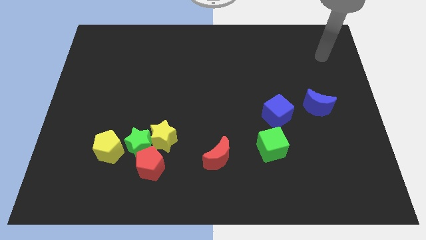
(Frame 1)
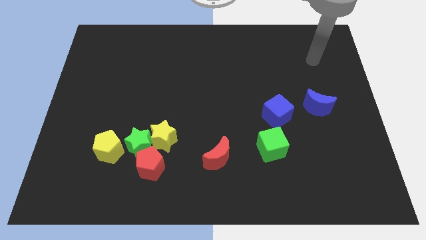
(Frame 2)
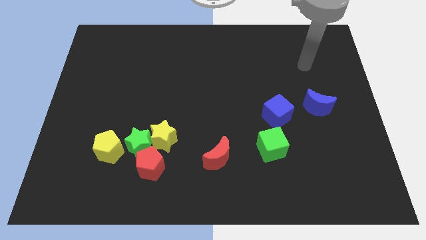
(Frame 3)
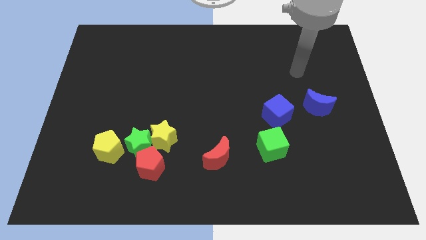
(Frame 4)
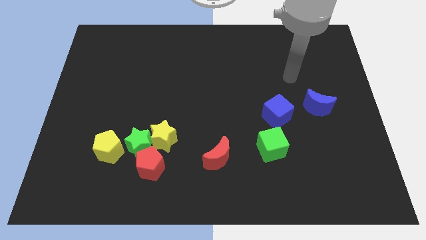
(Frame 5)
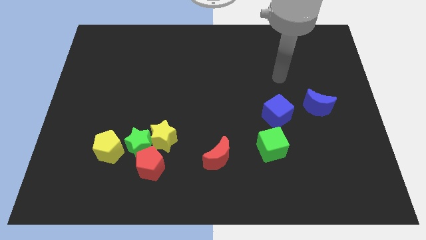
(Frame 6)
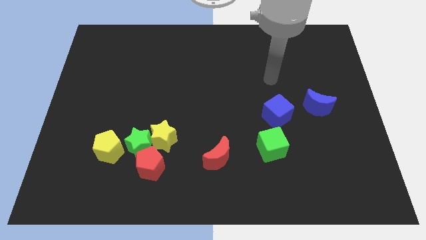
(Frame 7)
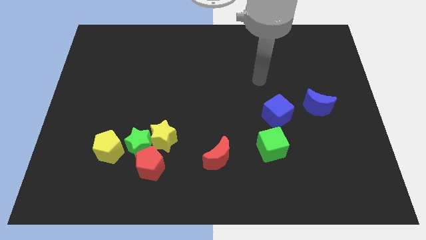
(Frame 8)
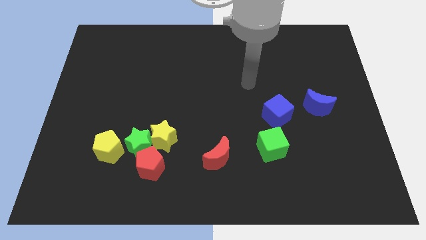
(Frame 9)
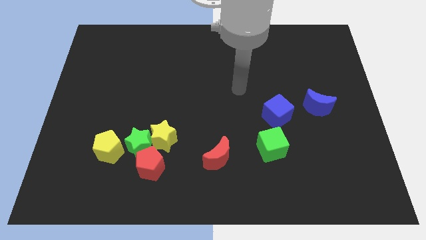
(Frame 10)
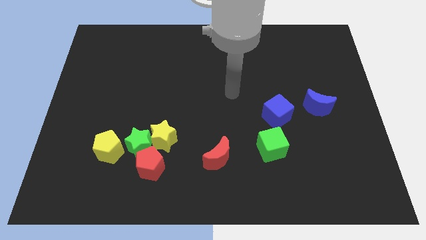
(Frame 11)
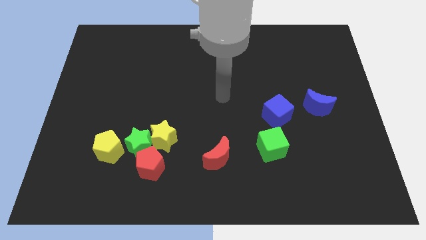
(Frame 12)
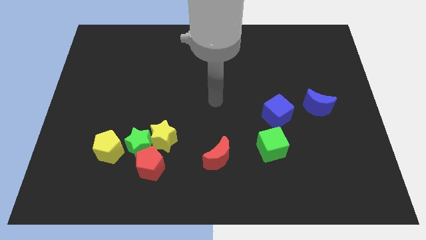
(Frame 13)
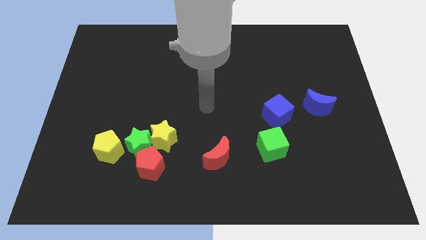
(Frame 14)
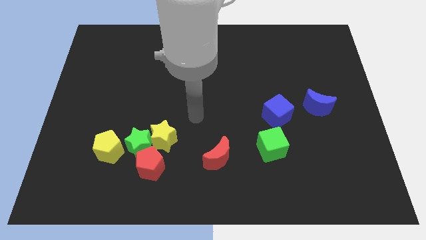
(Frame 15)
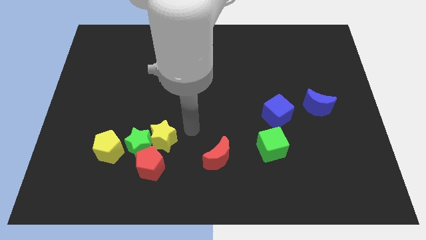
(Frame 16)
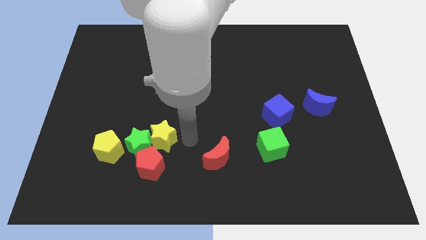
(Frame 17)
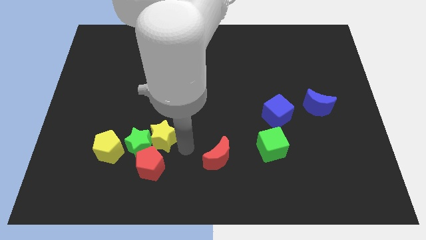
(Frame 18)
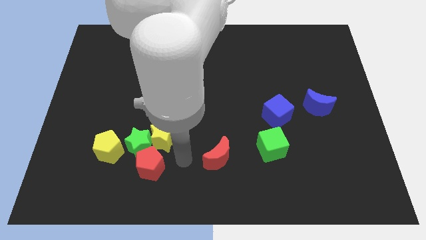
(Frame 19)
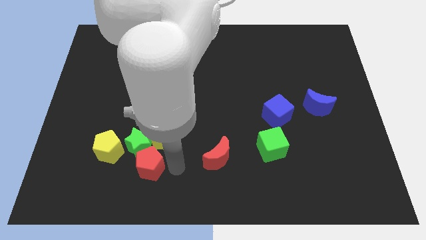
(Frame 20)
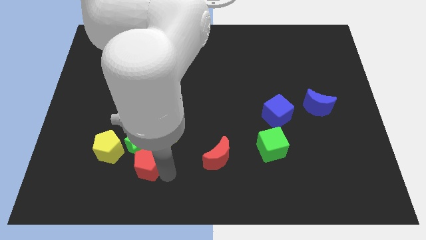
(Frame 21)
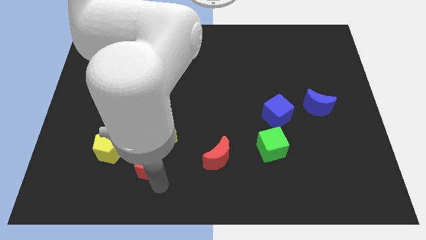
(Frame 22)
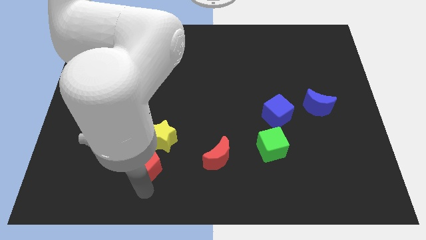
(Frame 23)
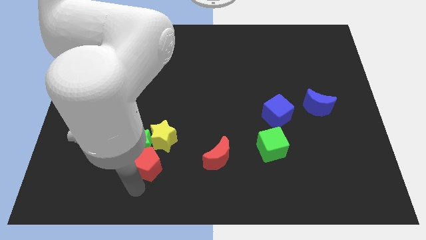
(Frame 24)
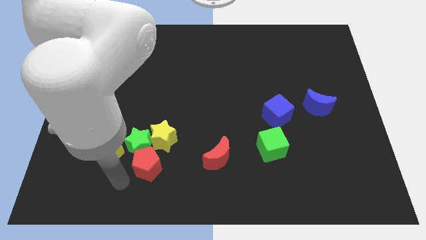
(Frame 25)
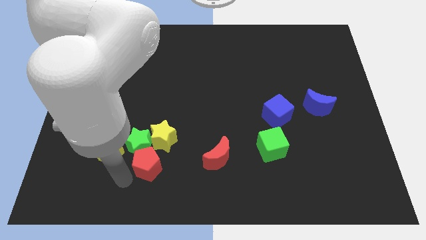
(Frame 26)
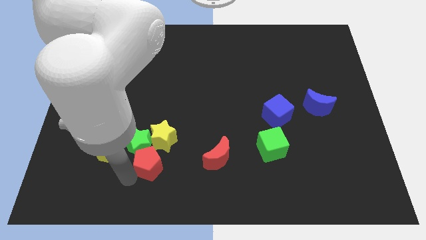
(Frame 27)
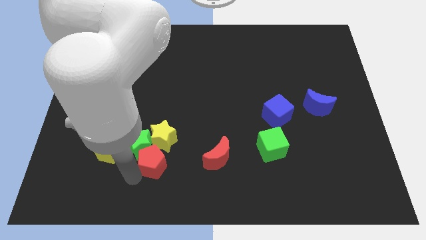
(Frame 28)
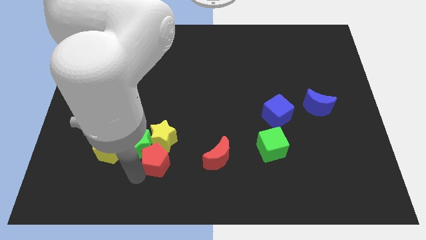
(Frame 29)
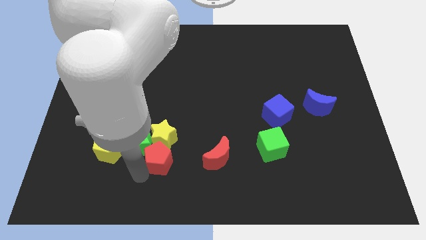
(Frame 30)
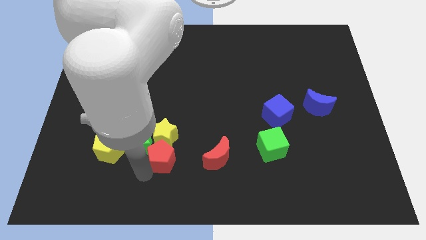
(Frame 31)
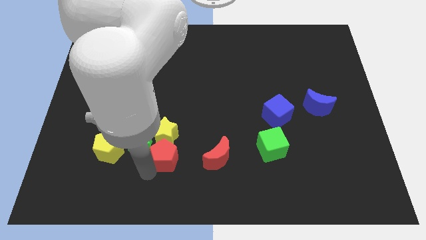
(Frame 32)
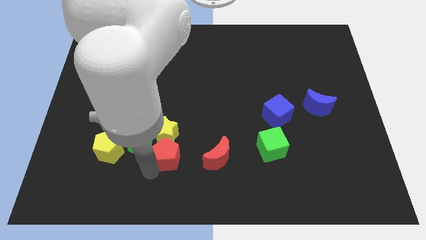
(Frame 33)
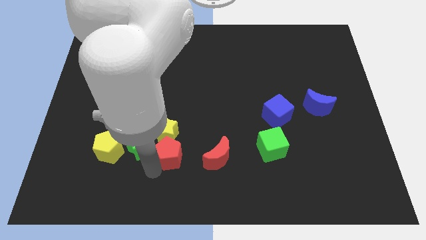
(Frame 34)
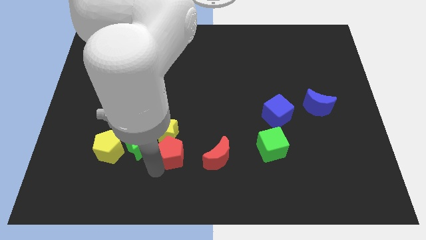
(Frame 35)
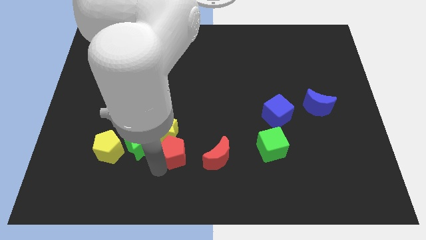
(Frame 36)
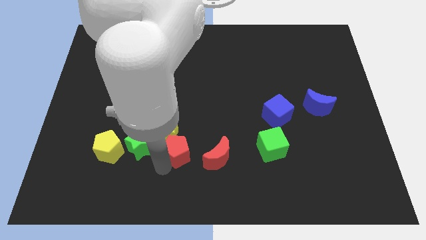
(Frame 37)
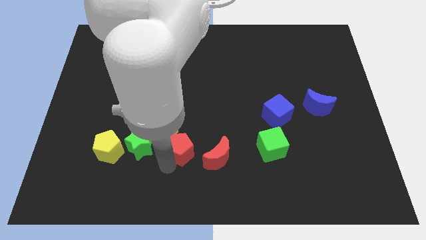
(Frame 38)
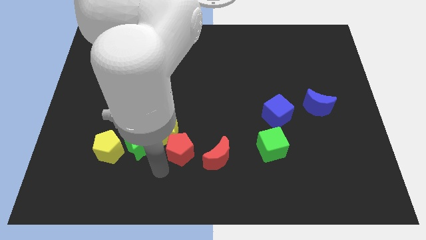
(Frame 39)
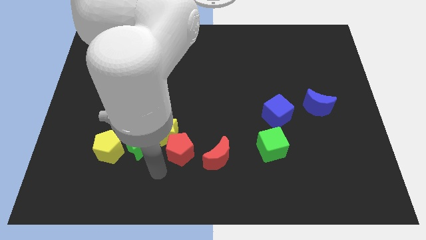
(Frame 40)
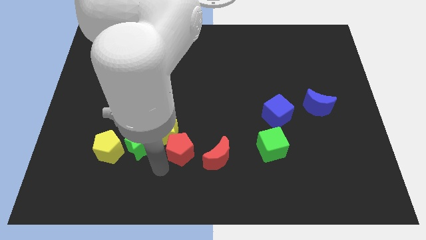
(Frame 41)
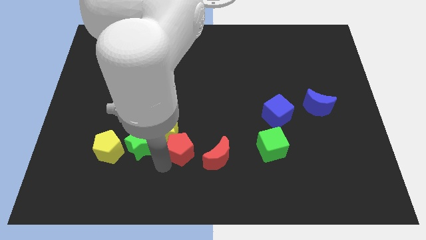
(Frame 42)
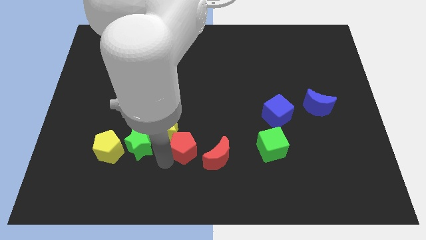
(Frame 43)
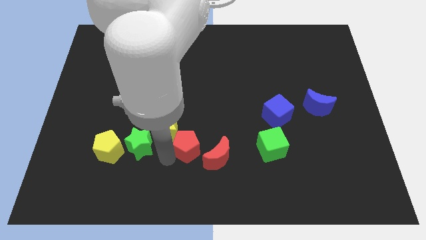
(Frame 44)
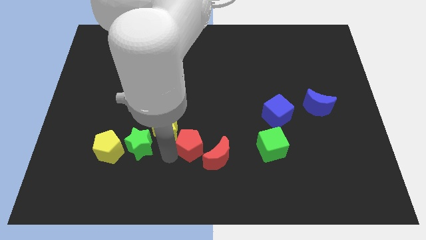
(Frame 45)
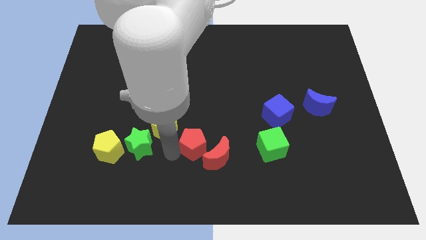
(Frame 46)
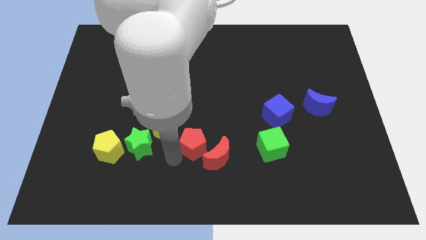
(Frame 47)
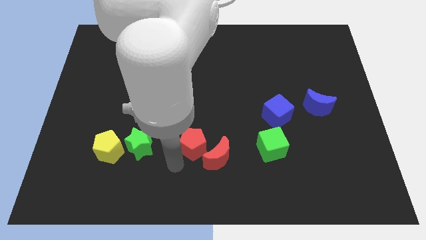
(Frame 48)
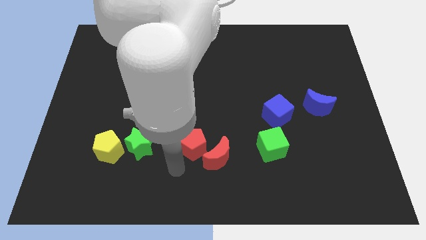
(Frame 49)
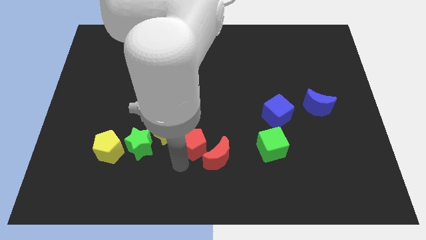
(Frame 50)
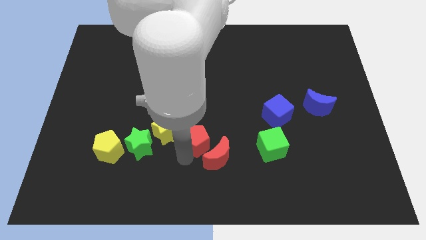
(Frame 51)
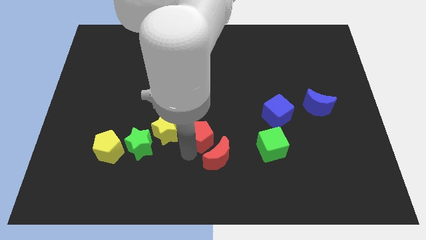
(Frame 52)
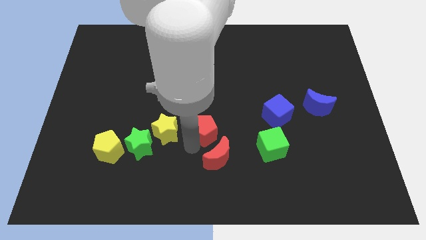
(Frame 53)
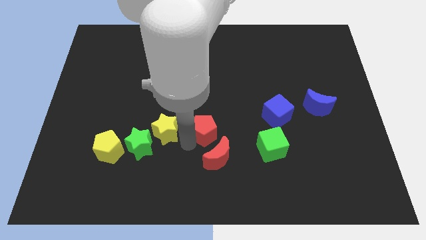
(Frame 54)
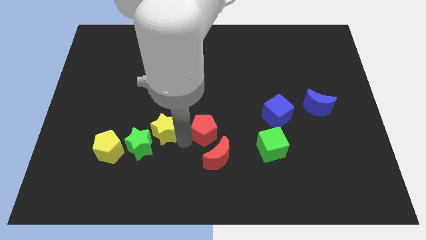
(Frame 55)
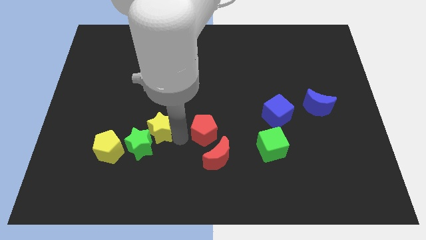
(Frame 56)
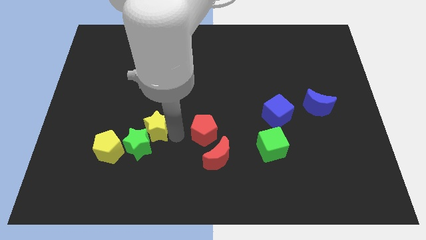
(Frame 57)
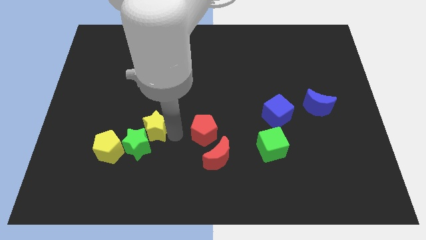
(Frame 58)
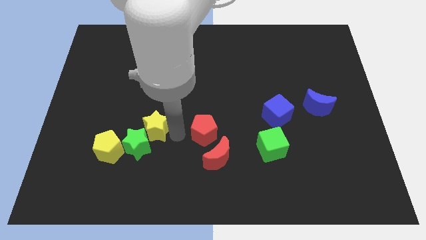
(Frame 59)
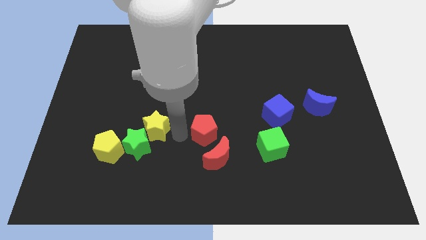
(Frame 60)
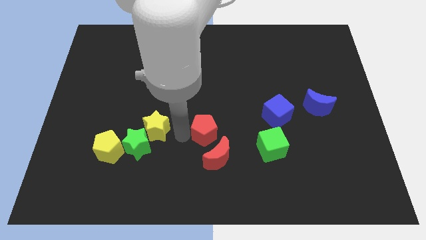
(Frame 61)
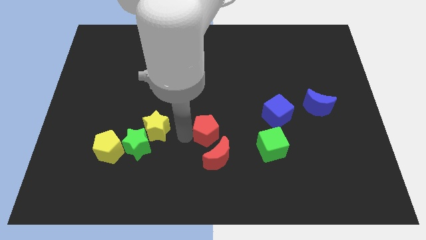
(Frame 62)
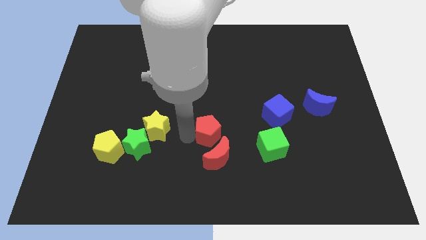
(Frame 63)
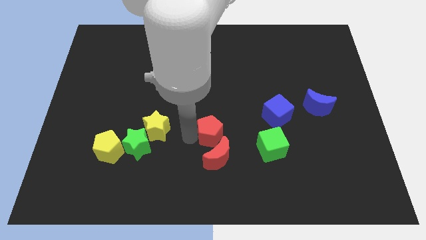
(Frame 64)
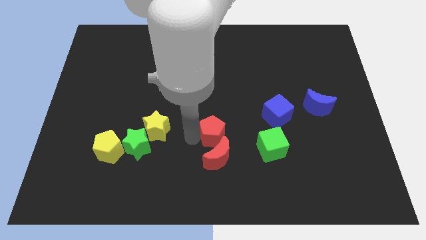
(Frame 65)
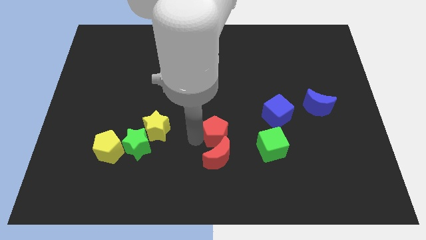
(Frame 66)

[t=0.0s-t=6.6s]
slide the red pentagon to the top right of the red moon

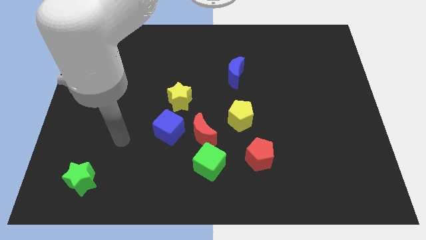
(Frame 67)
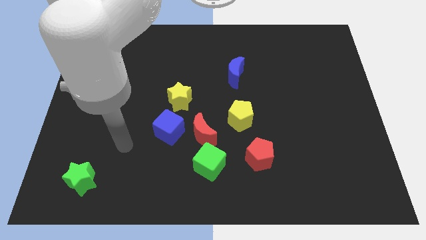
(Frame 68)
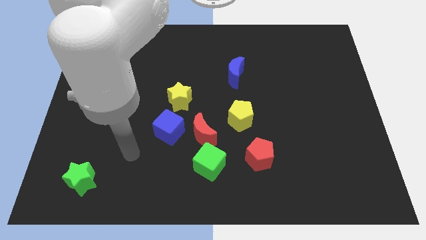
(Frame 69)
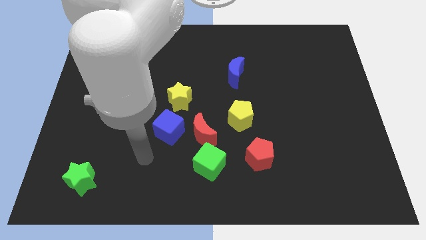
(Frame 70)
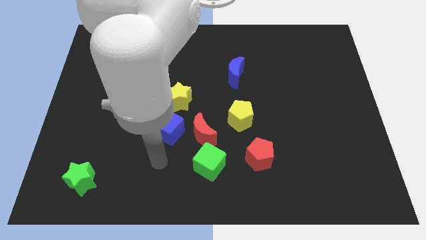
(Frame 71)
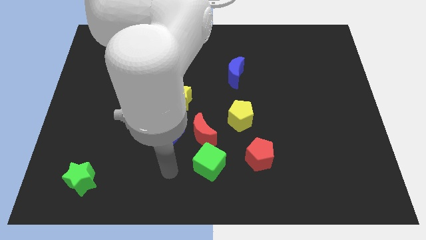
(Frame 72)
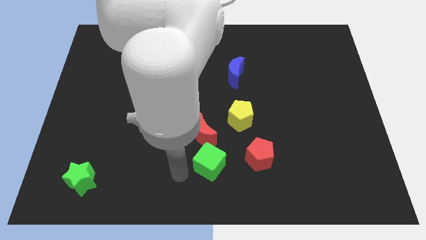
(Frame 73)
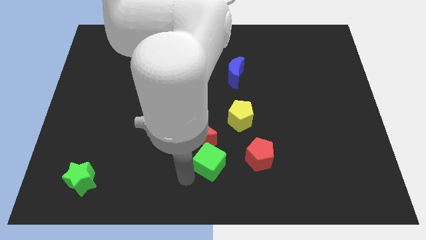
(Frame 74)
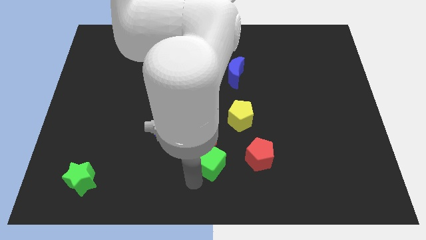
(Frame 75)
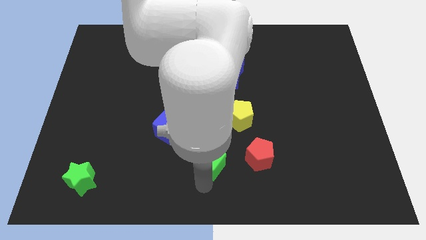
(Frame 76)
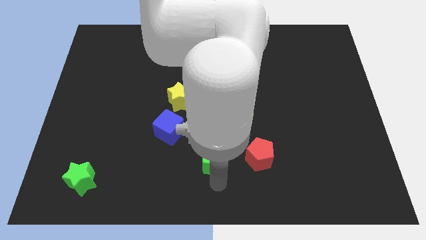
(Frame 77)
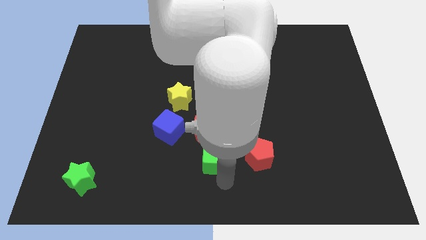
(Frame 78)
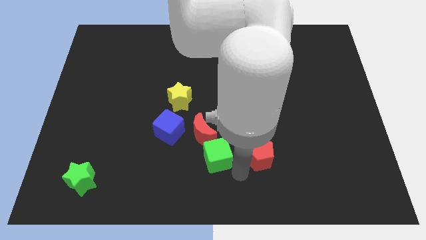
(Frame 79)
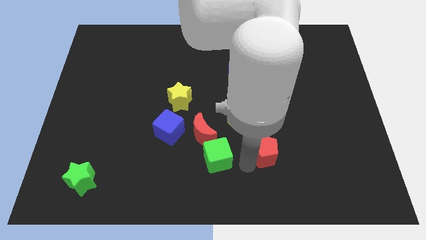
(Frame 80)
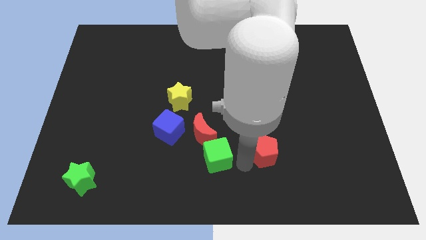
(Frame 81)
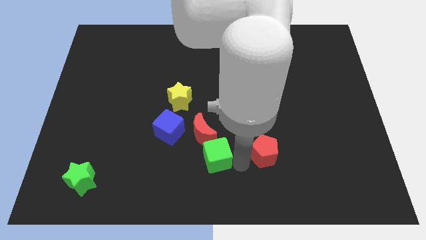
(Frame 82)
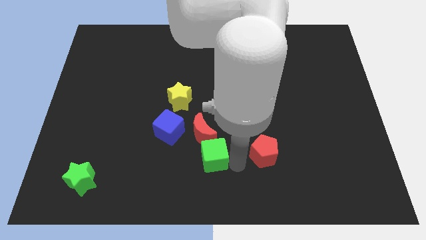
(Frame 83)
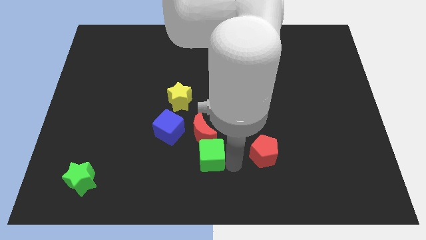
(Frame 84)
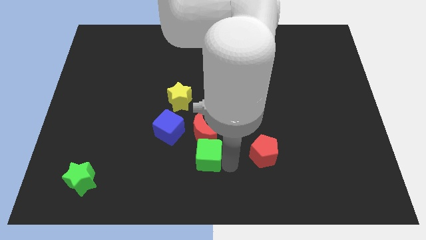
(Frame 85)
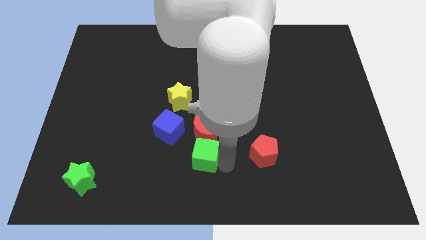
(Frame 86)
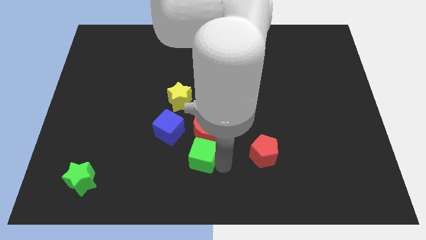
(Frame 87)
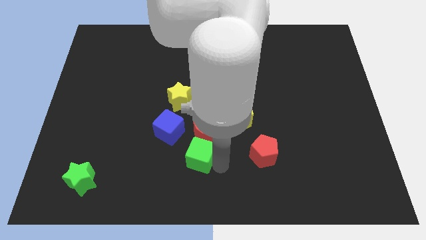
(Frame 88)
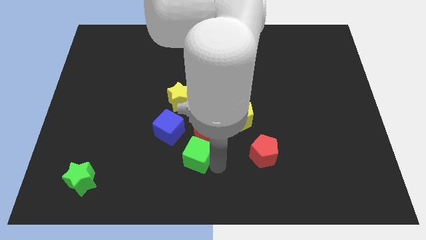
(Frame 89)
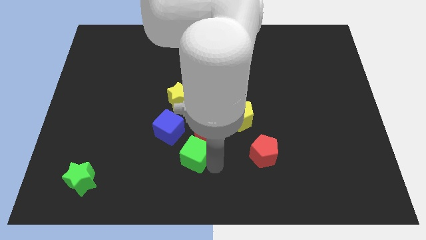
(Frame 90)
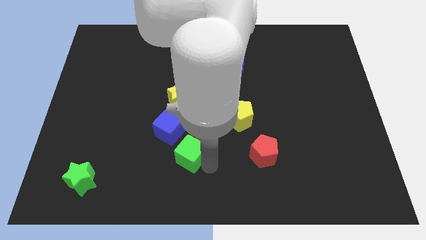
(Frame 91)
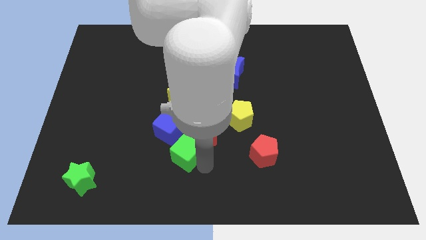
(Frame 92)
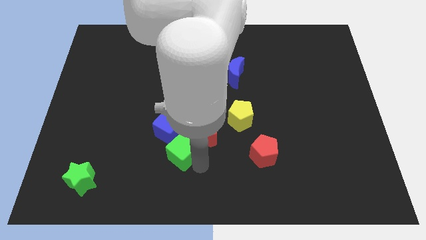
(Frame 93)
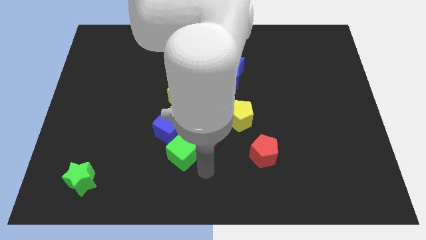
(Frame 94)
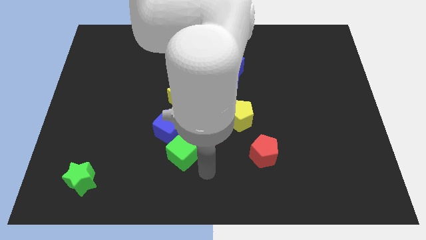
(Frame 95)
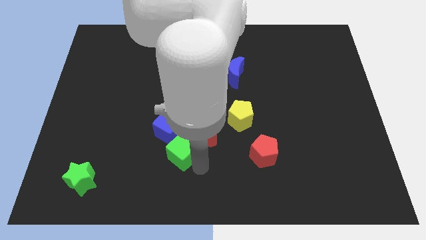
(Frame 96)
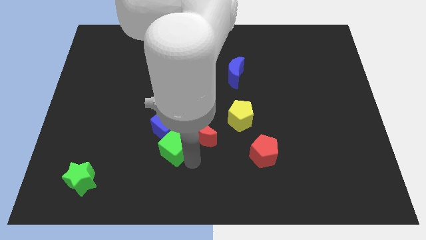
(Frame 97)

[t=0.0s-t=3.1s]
move the green cube left of the red moon
